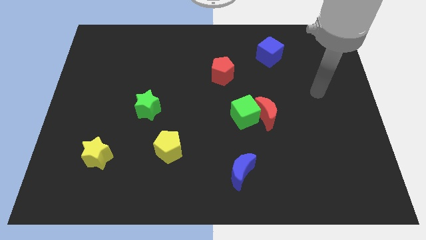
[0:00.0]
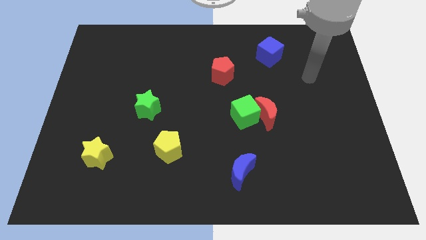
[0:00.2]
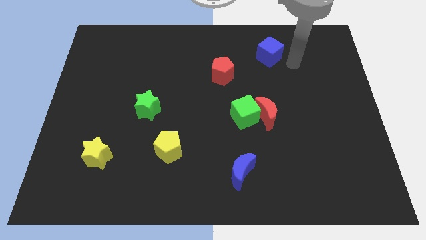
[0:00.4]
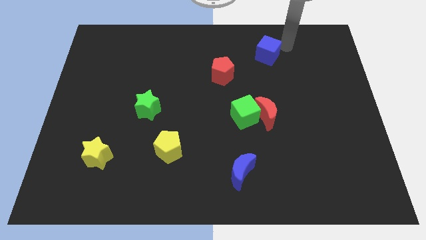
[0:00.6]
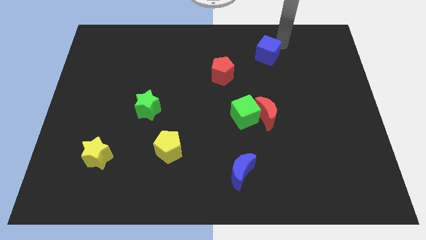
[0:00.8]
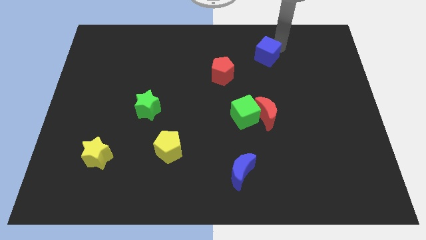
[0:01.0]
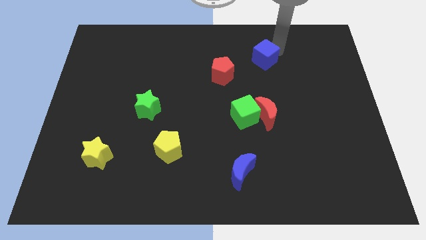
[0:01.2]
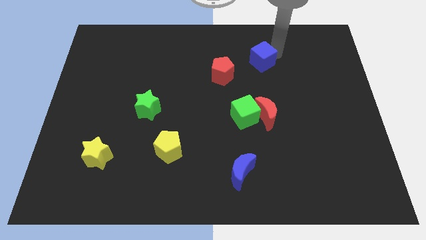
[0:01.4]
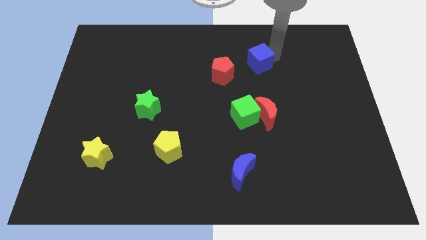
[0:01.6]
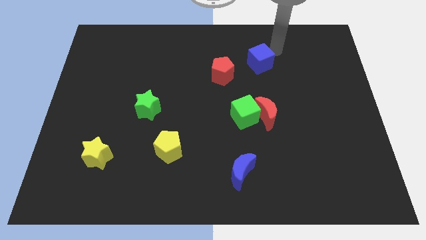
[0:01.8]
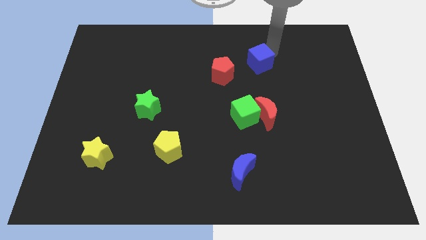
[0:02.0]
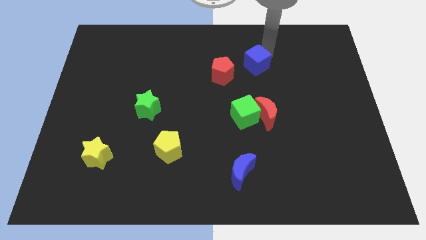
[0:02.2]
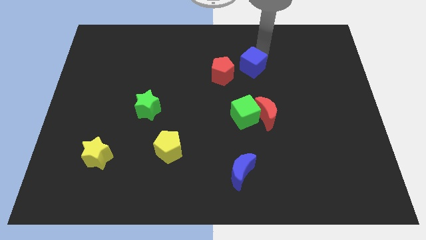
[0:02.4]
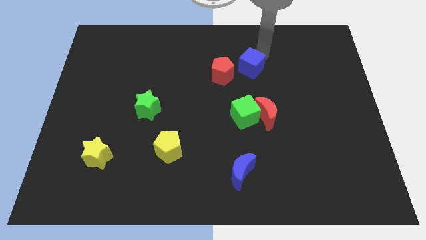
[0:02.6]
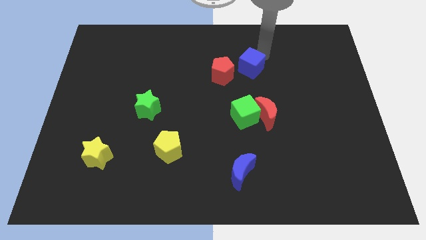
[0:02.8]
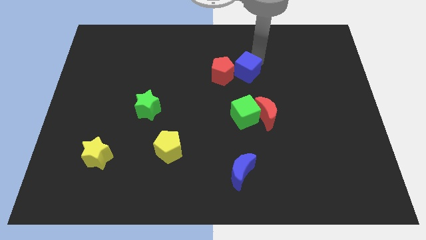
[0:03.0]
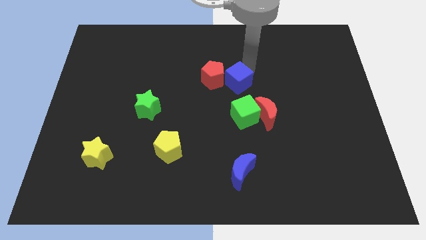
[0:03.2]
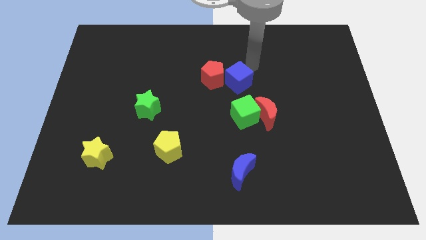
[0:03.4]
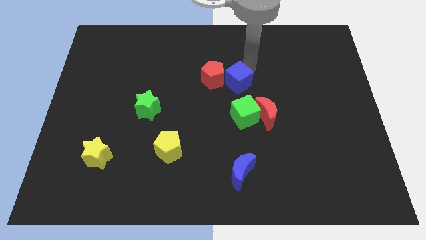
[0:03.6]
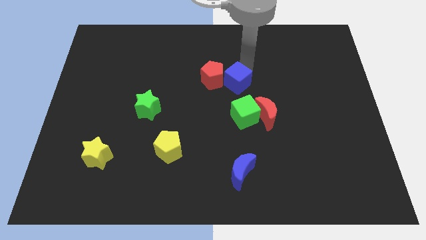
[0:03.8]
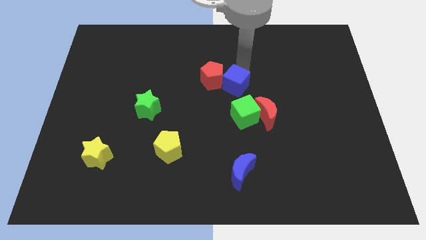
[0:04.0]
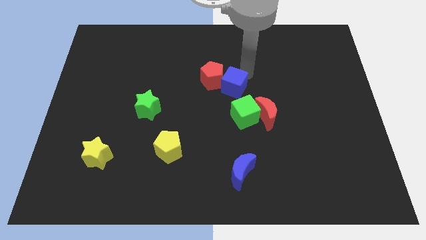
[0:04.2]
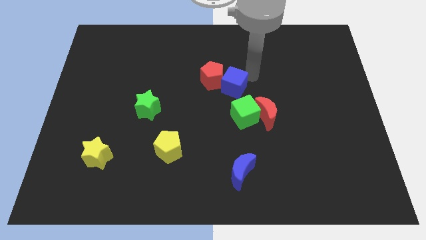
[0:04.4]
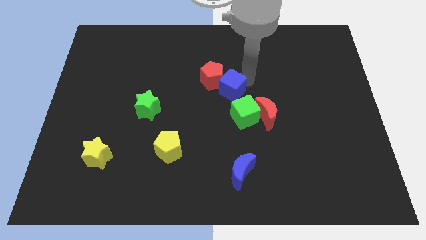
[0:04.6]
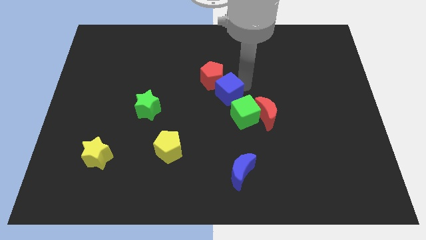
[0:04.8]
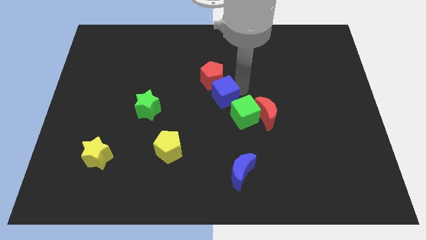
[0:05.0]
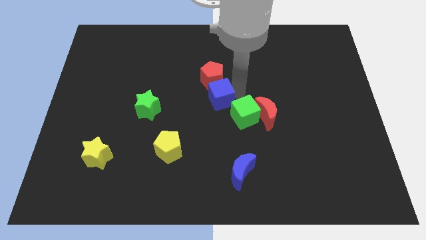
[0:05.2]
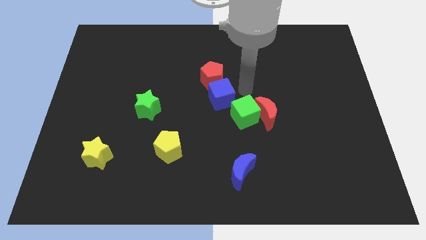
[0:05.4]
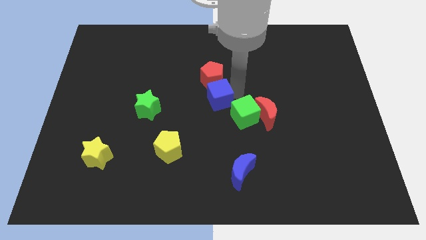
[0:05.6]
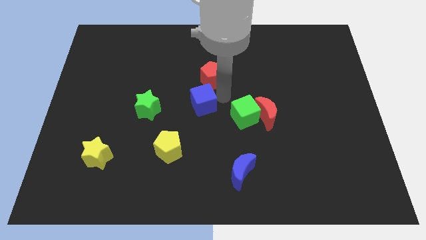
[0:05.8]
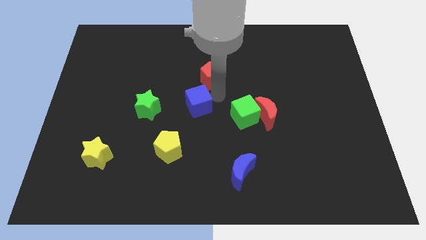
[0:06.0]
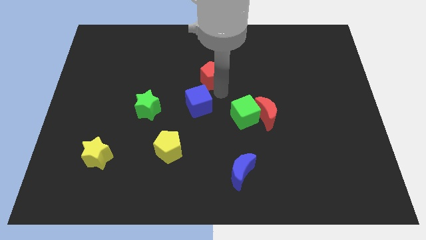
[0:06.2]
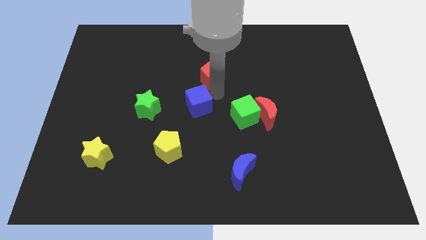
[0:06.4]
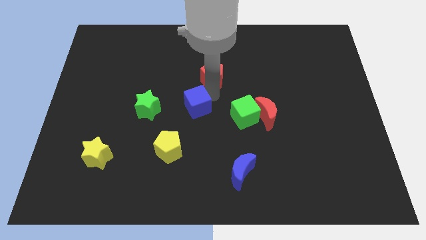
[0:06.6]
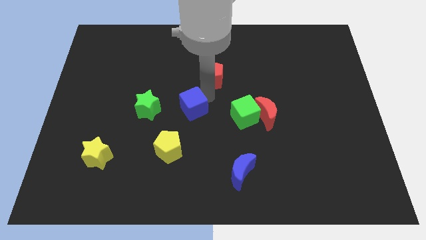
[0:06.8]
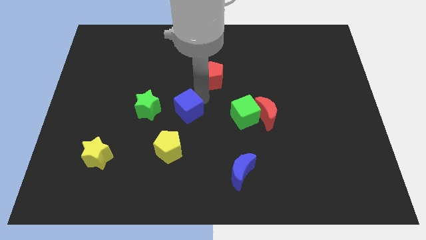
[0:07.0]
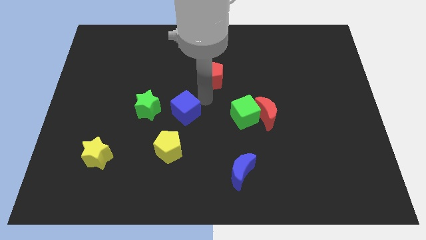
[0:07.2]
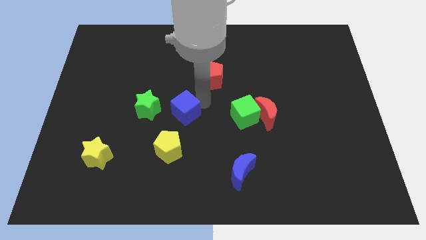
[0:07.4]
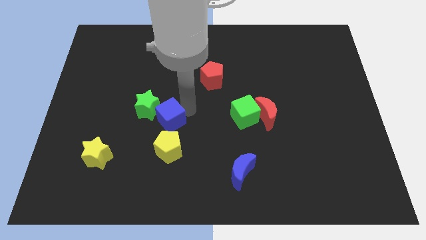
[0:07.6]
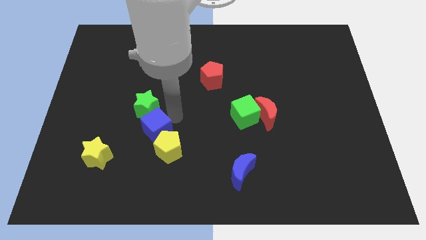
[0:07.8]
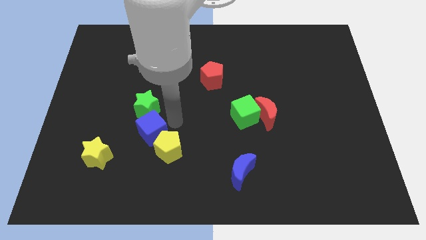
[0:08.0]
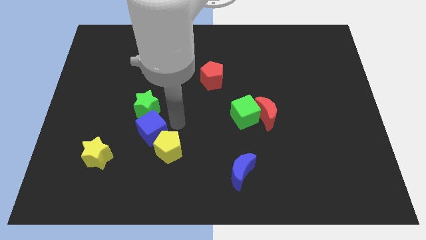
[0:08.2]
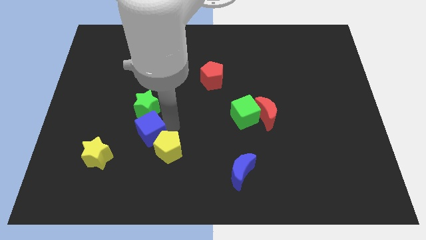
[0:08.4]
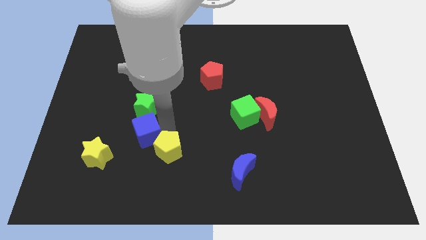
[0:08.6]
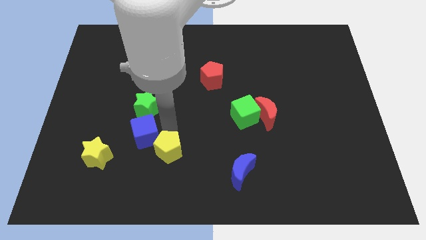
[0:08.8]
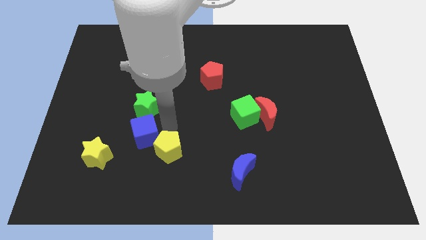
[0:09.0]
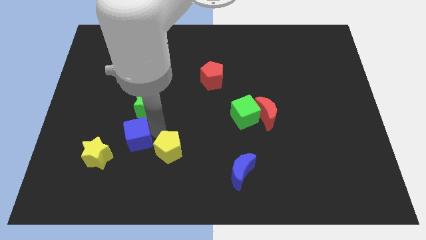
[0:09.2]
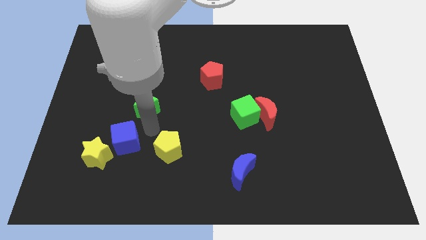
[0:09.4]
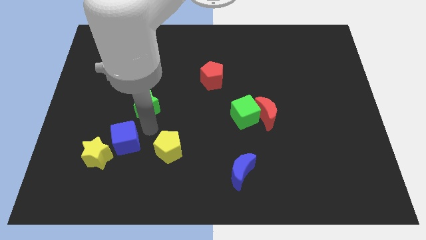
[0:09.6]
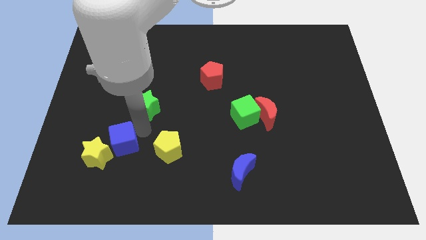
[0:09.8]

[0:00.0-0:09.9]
move the blue cube close to the yellow star

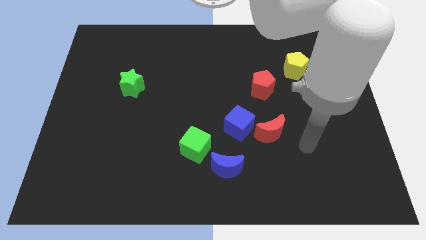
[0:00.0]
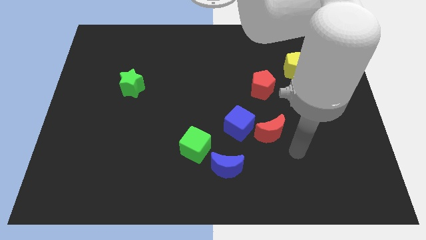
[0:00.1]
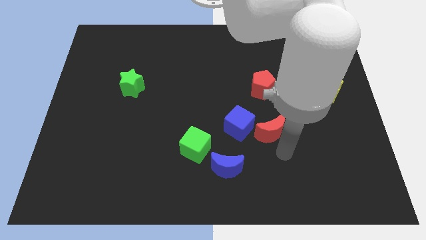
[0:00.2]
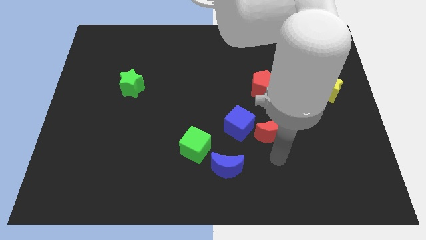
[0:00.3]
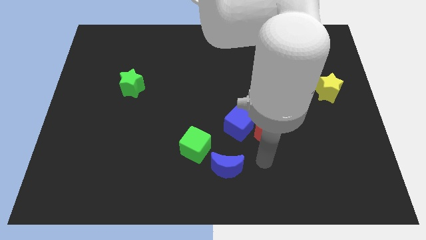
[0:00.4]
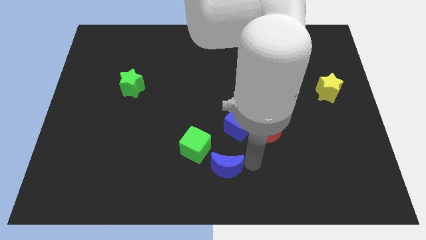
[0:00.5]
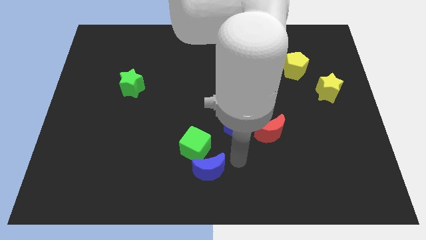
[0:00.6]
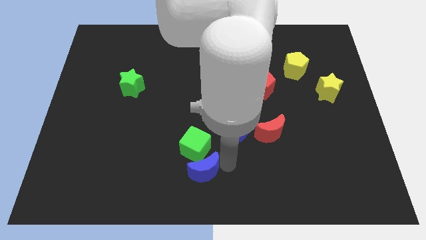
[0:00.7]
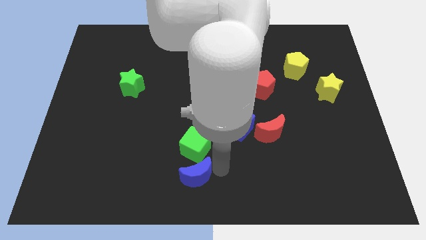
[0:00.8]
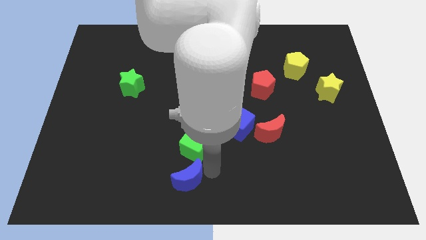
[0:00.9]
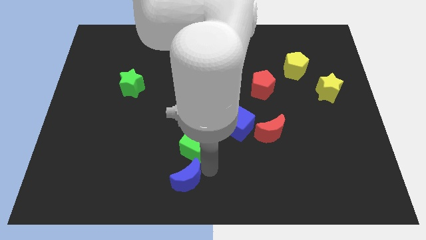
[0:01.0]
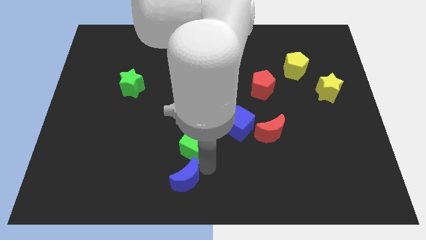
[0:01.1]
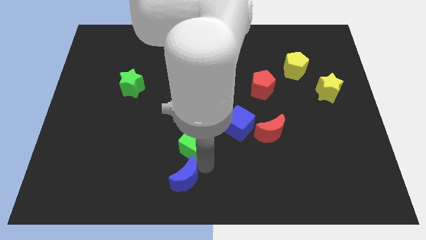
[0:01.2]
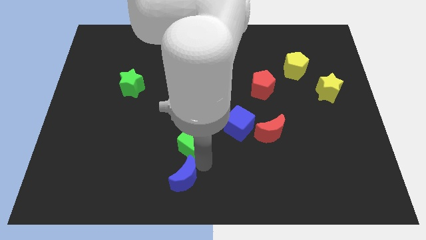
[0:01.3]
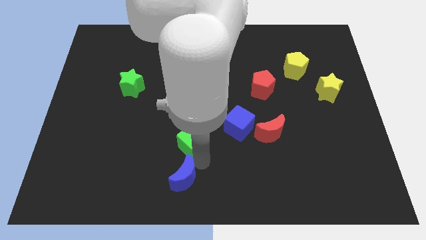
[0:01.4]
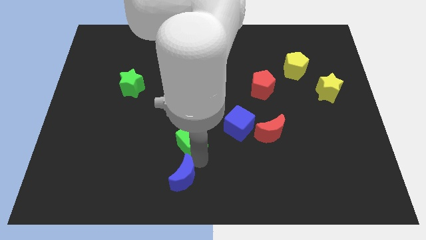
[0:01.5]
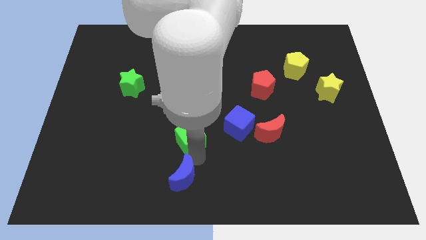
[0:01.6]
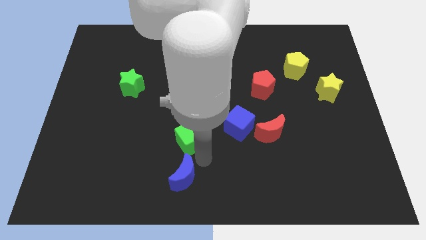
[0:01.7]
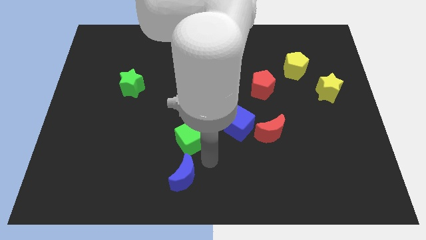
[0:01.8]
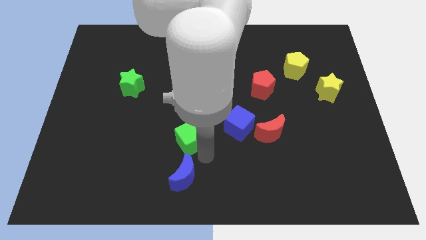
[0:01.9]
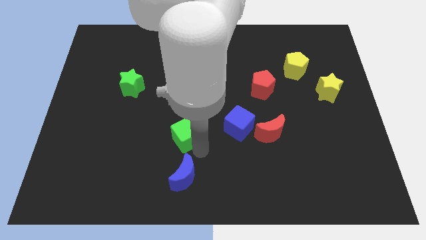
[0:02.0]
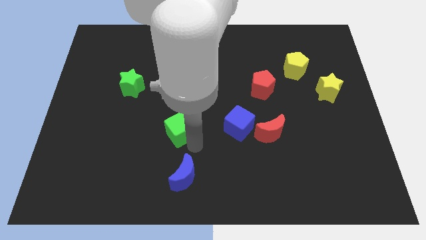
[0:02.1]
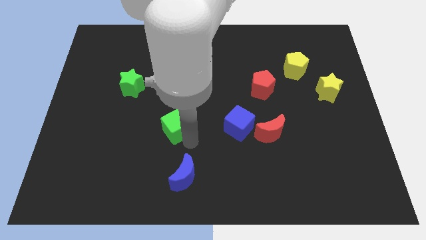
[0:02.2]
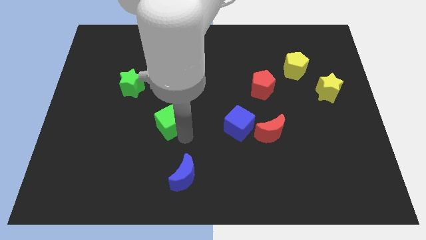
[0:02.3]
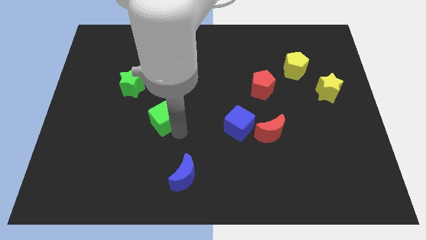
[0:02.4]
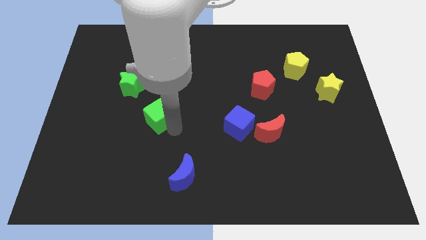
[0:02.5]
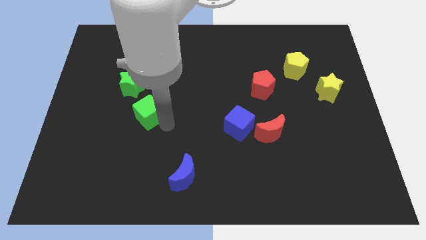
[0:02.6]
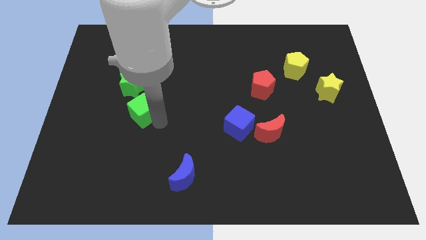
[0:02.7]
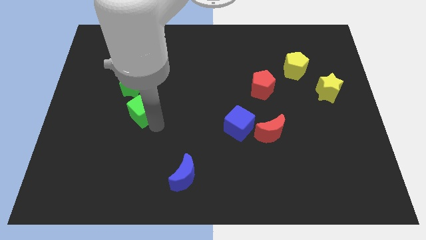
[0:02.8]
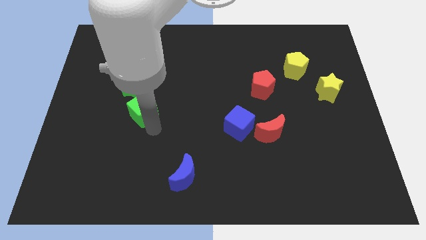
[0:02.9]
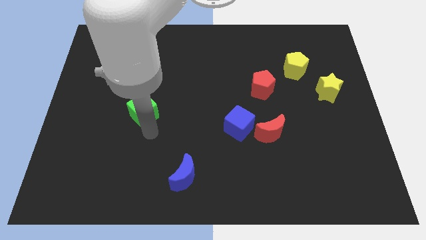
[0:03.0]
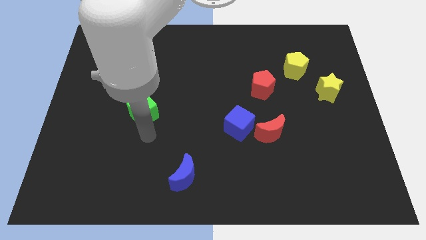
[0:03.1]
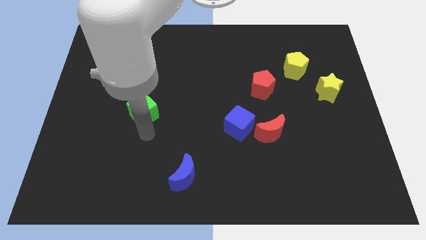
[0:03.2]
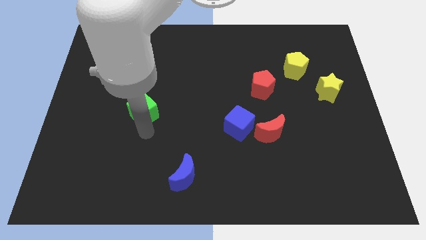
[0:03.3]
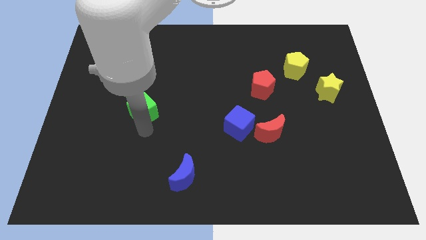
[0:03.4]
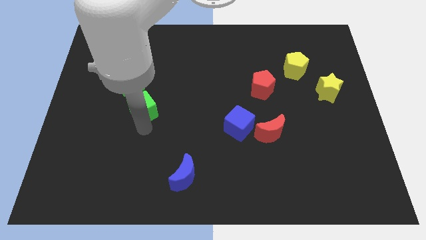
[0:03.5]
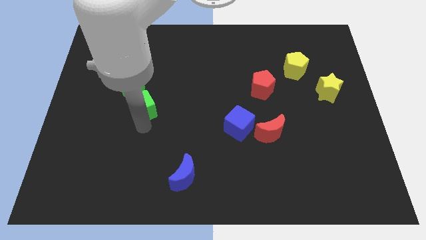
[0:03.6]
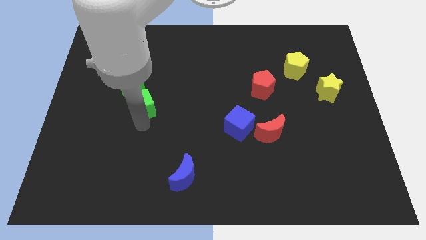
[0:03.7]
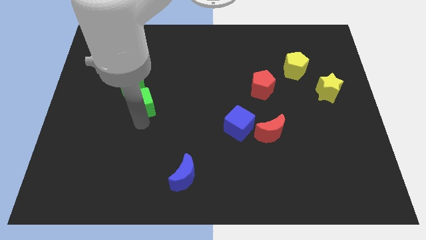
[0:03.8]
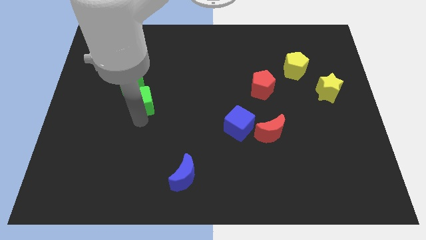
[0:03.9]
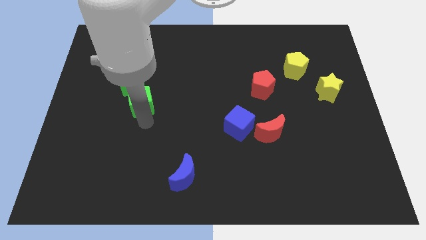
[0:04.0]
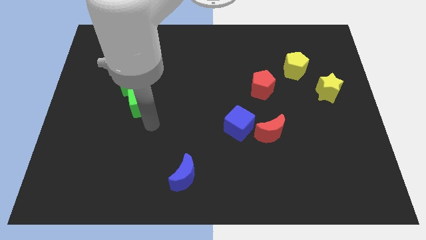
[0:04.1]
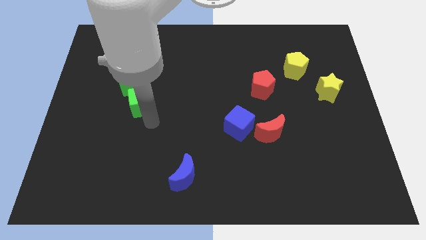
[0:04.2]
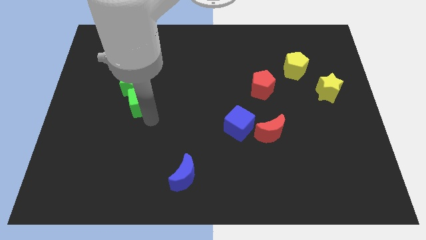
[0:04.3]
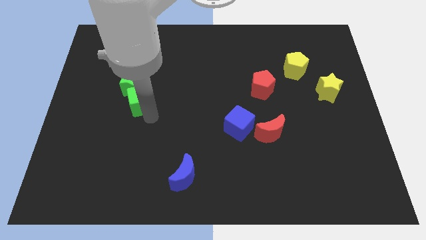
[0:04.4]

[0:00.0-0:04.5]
move the green cube to the green star
